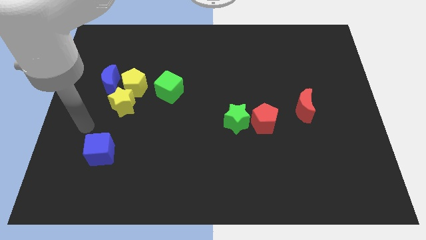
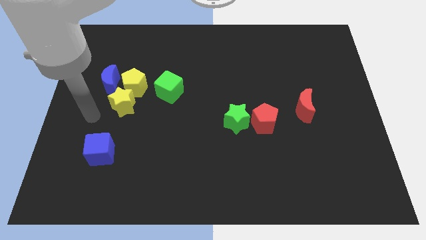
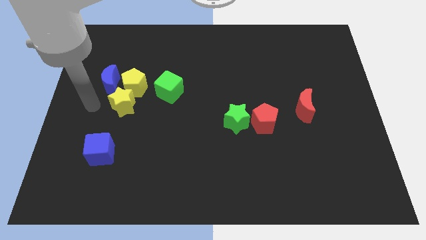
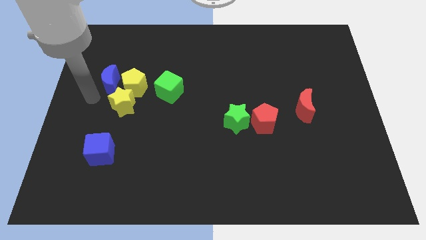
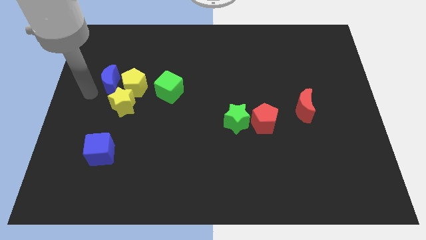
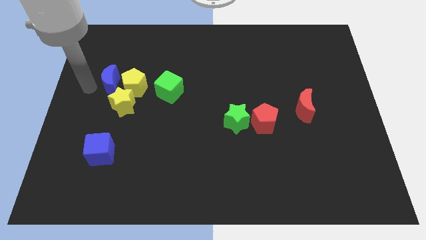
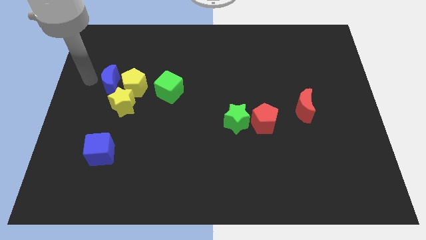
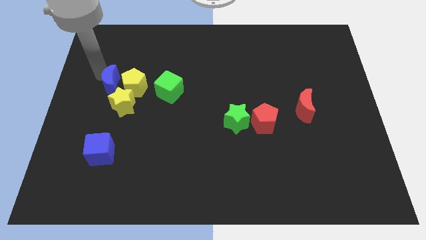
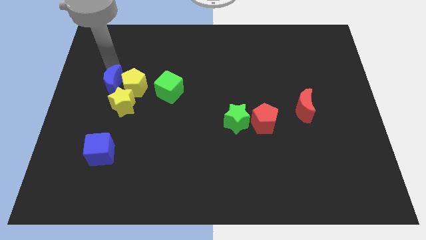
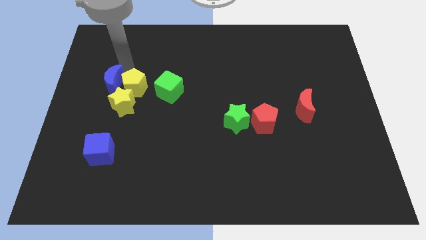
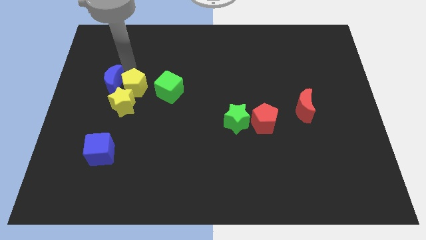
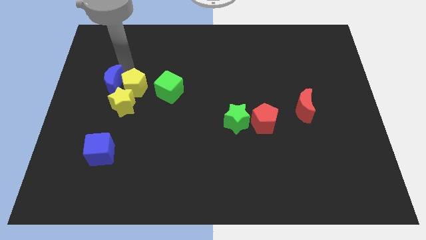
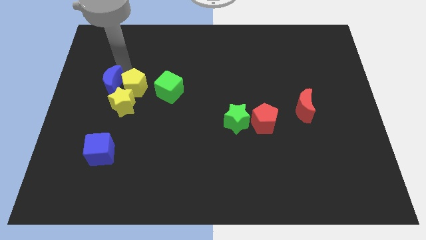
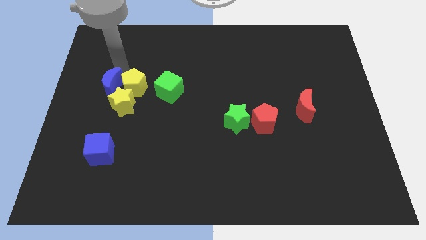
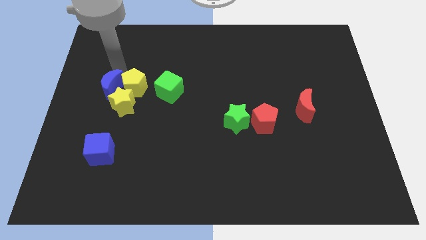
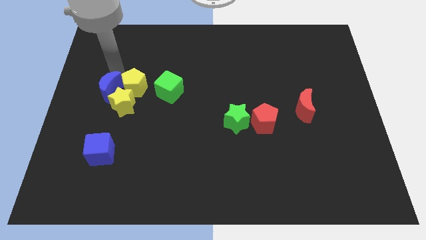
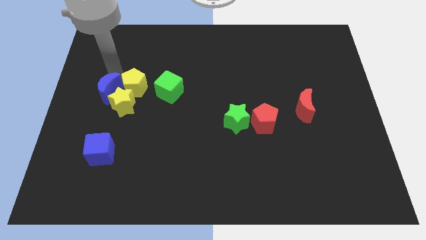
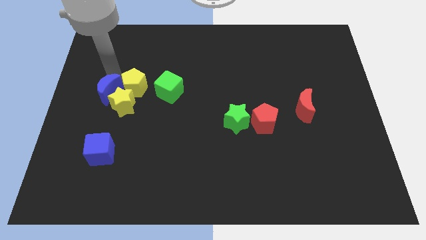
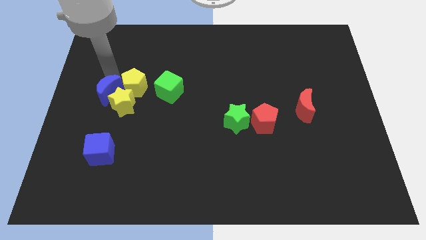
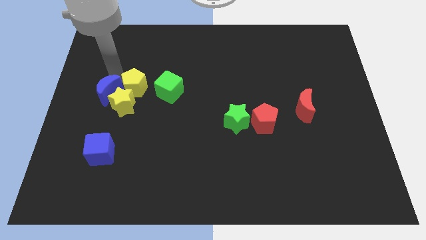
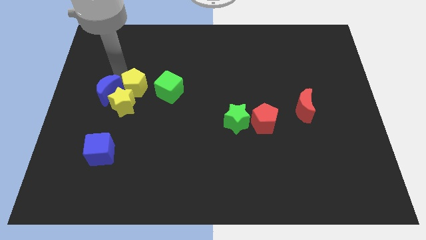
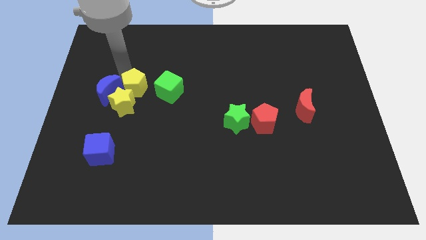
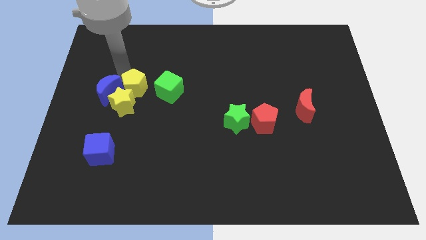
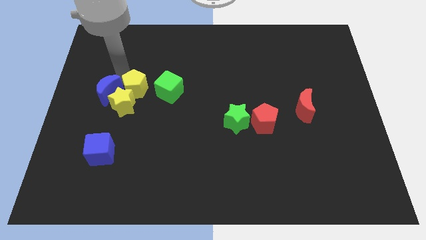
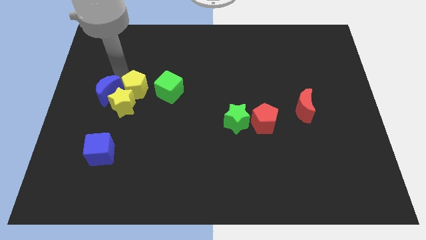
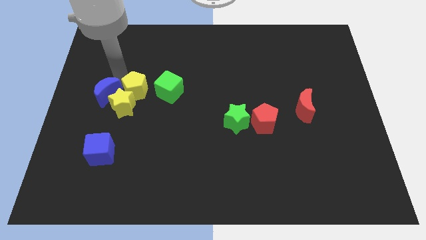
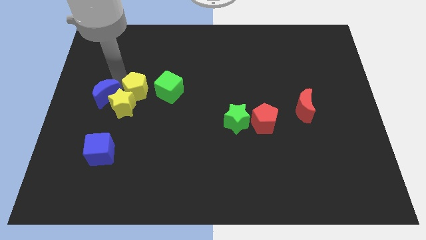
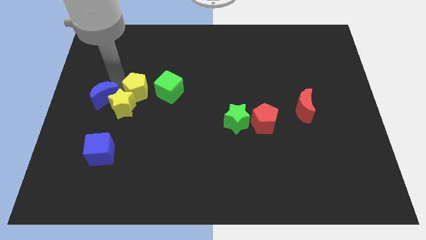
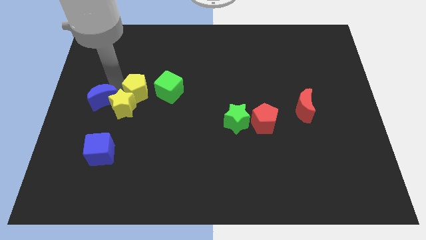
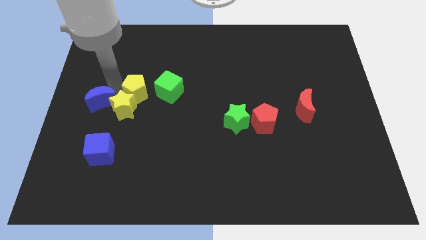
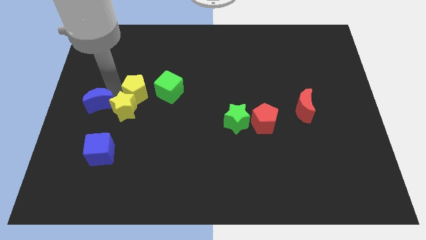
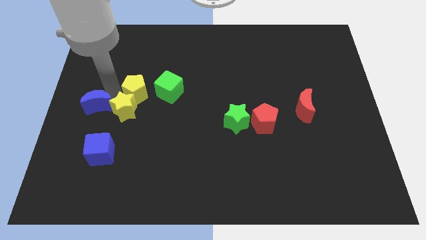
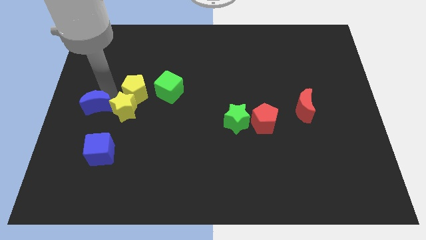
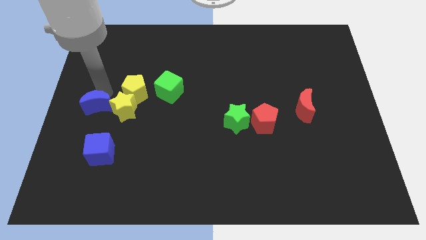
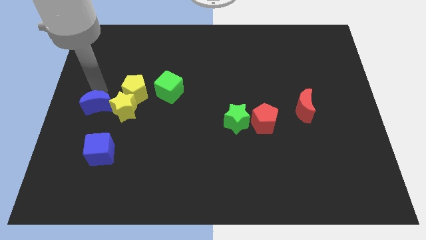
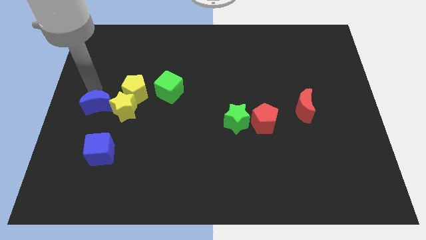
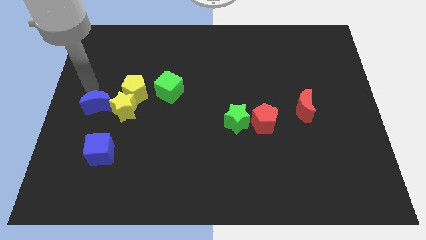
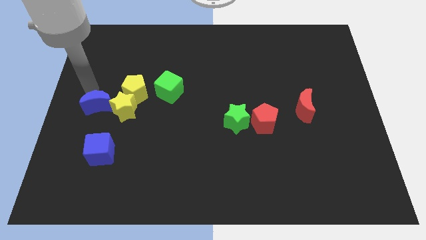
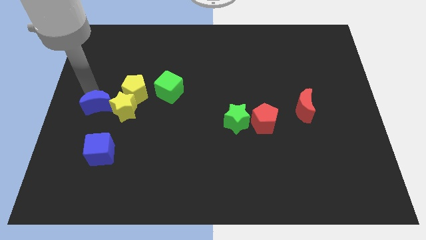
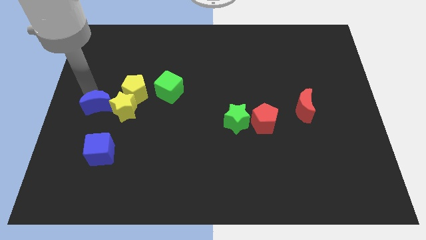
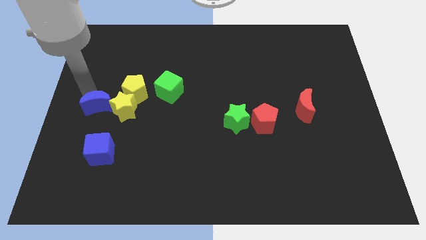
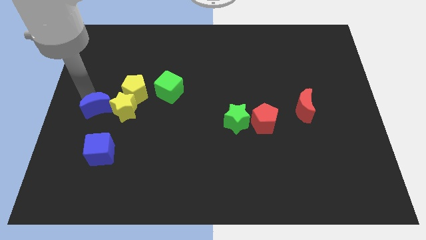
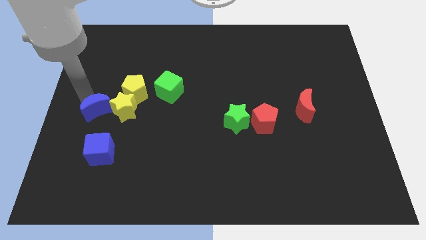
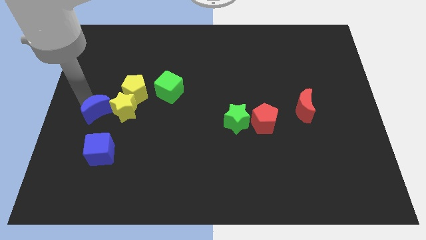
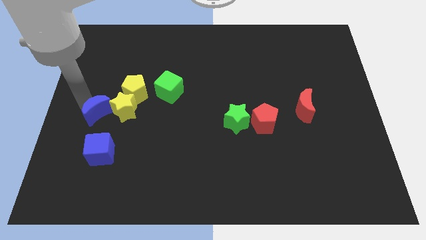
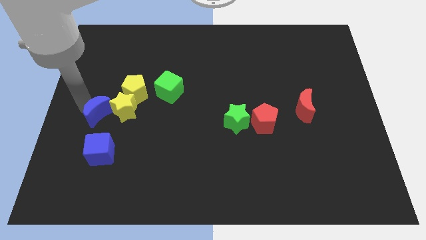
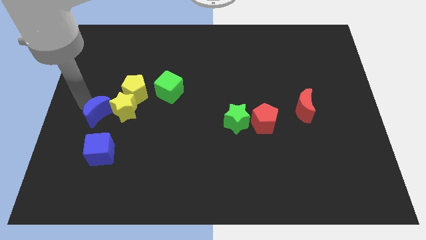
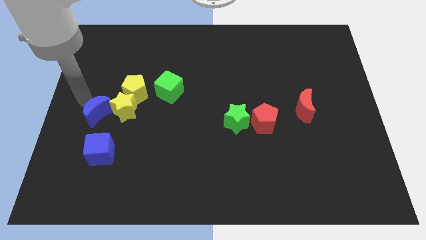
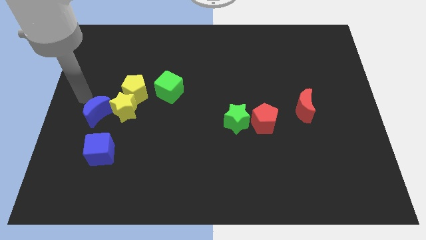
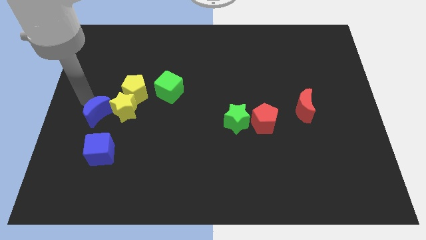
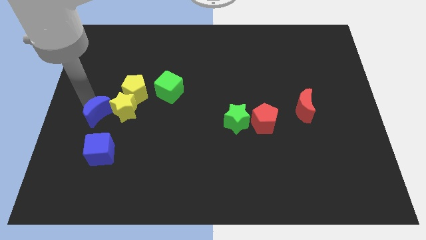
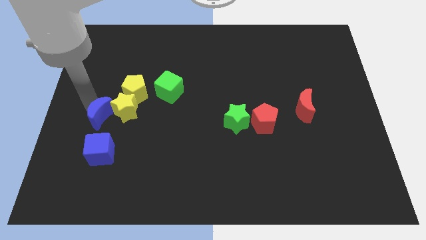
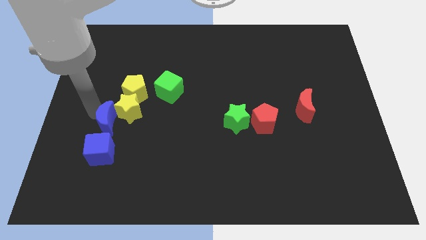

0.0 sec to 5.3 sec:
slightly push the blue moon diagonally downwards and right

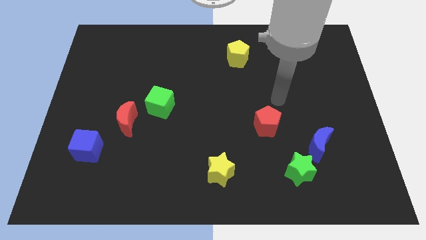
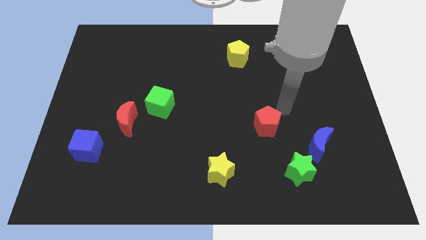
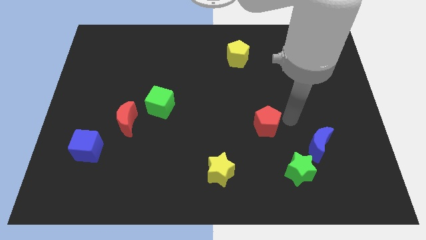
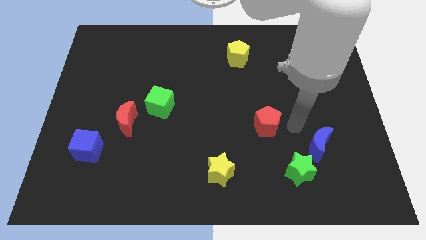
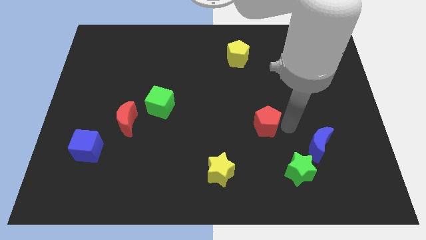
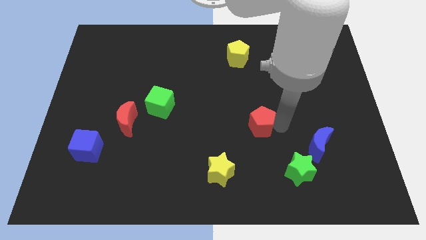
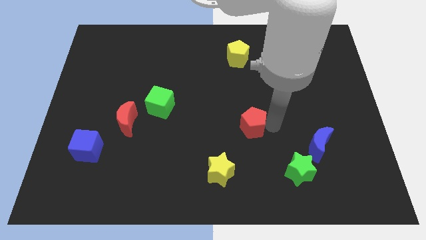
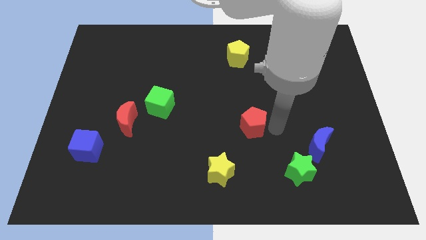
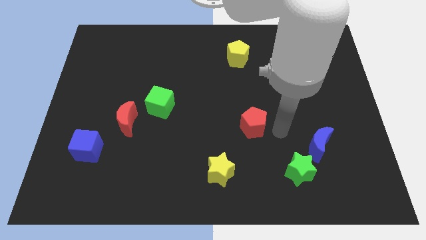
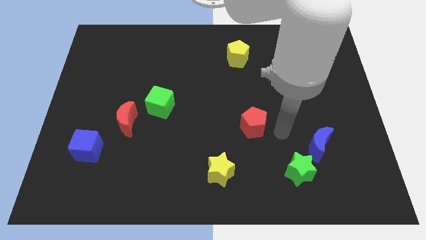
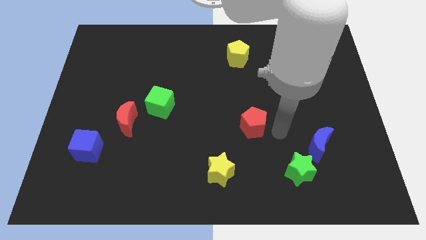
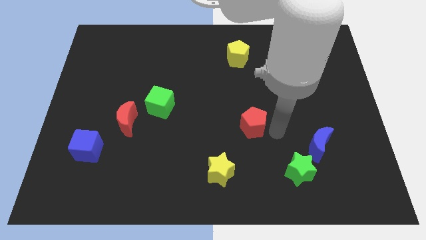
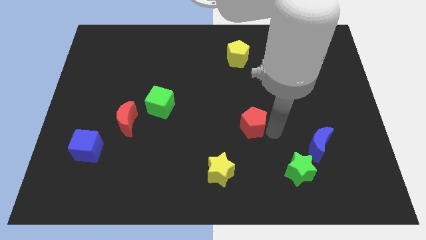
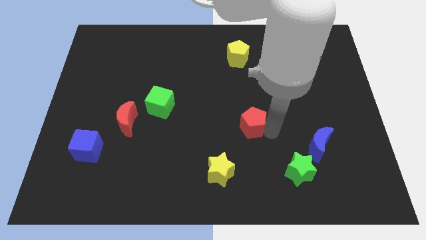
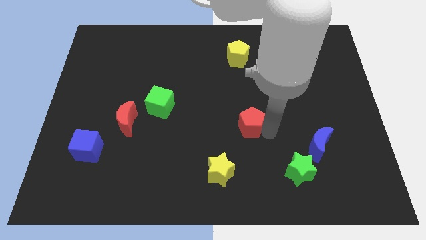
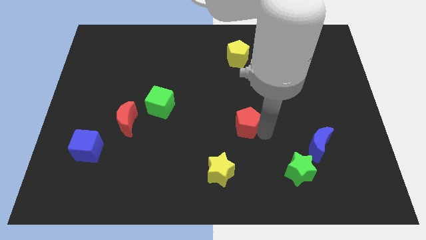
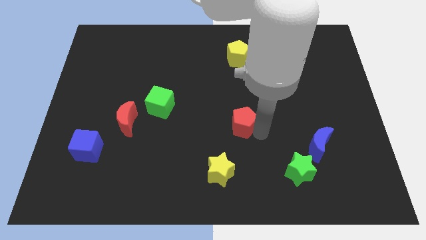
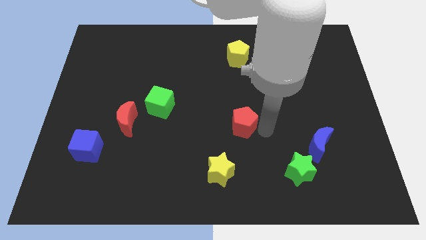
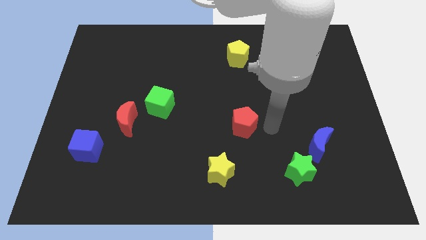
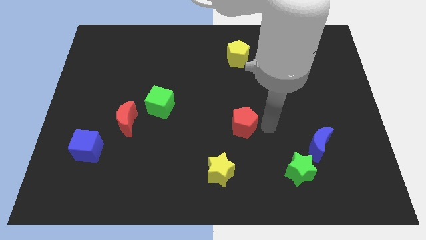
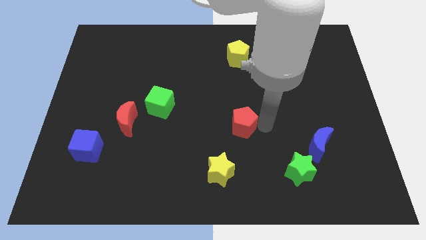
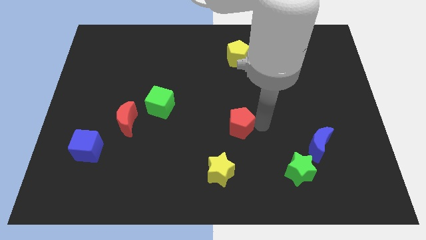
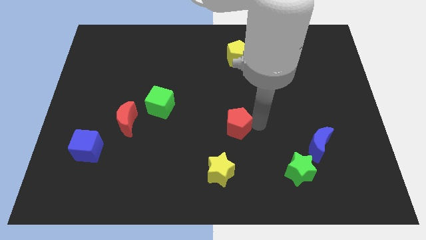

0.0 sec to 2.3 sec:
slightly move the red pentagon left

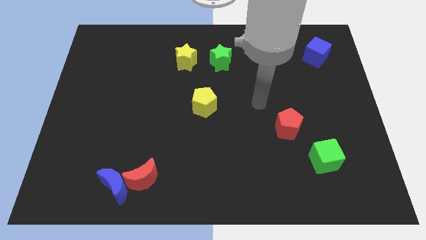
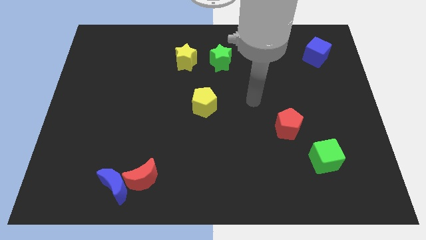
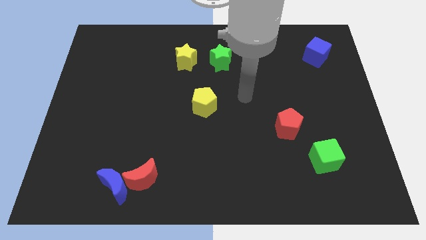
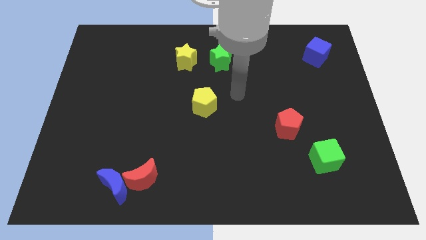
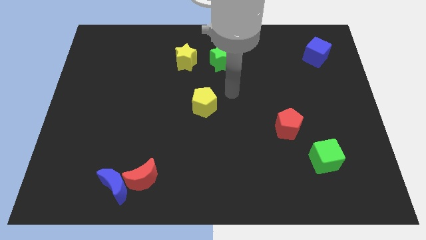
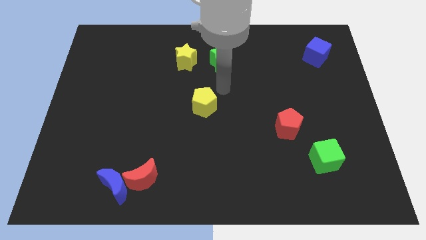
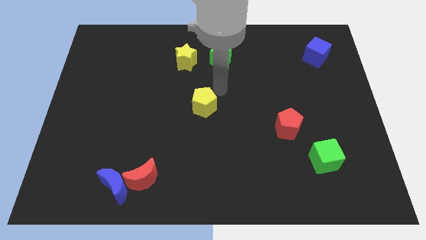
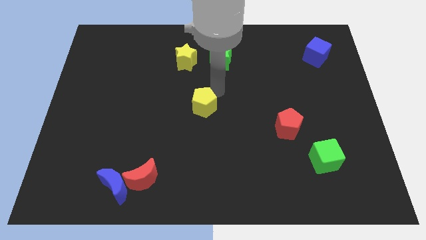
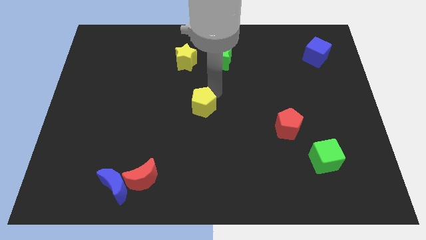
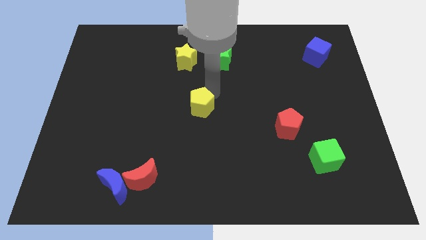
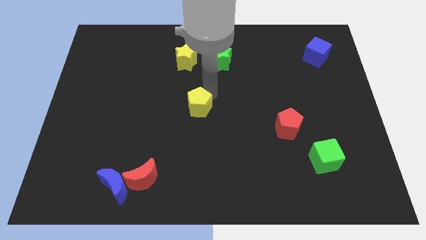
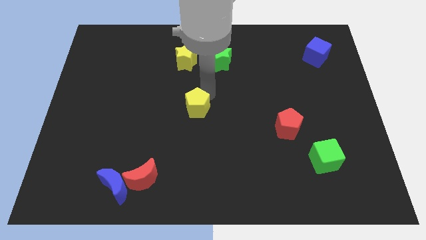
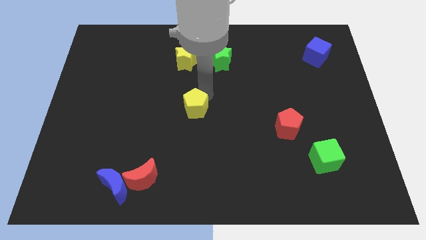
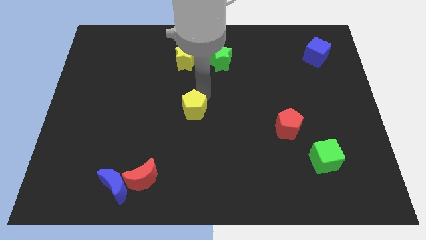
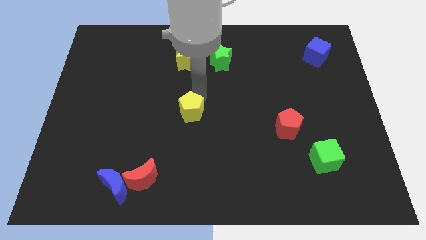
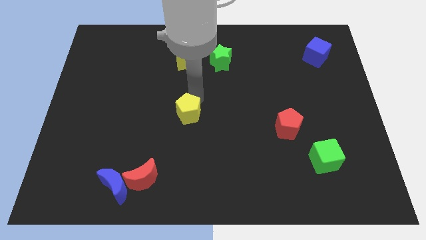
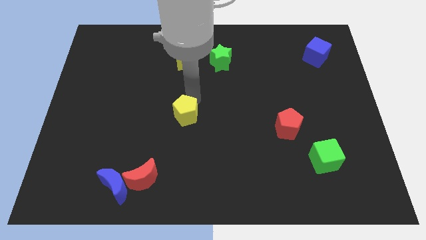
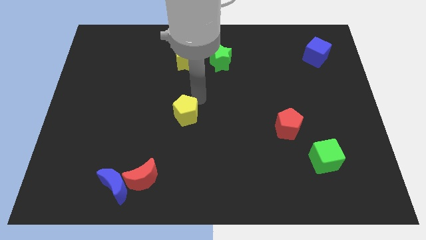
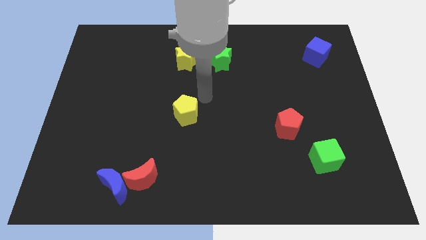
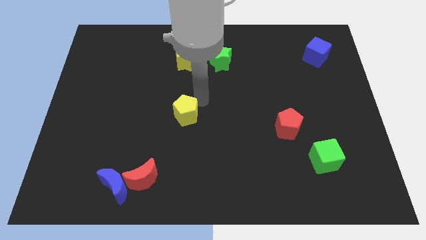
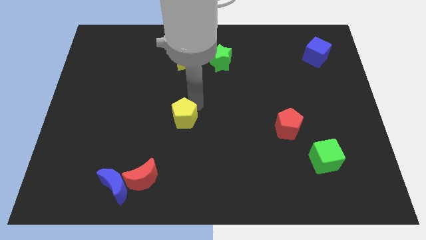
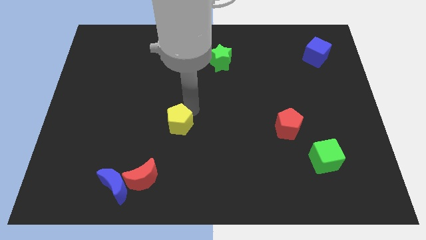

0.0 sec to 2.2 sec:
slightly move the yellow pentagon diagonally down and left
